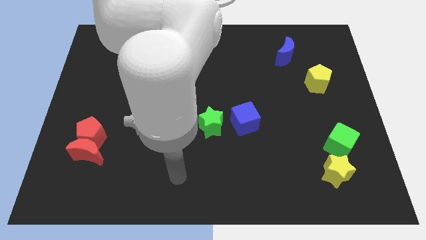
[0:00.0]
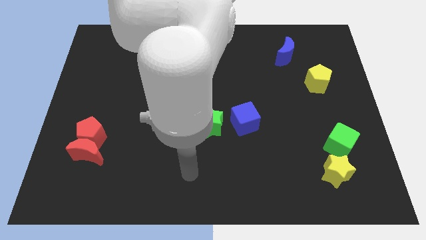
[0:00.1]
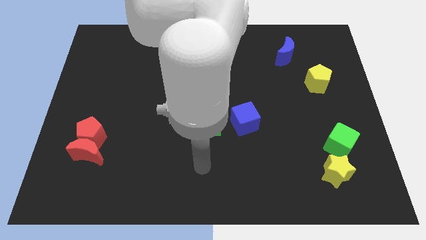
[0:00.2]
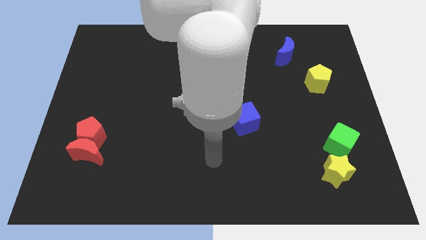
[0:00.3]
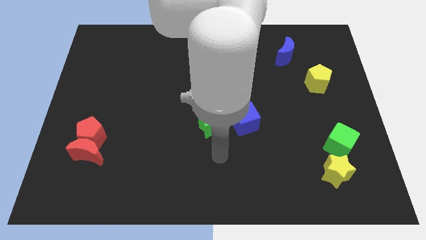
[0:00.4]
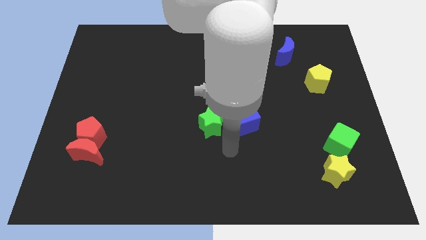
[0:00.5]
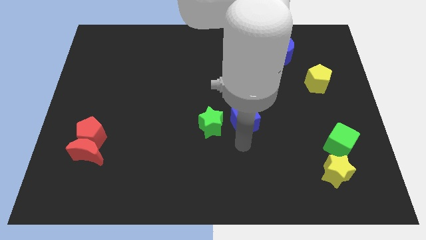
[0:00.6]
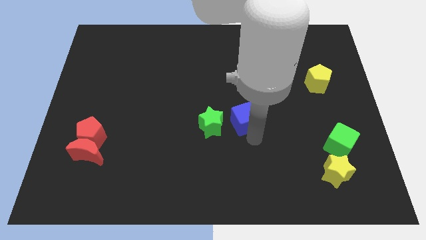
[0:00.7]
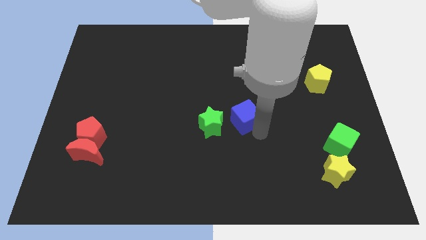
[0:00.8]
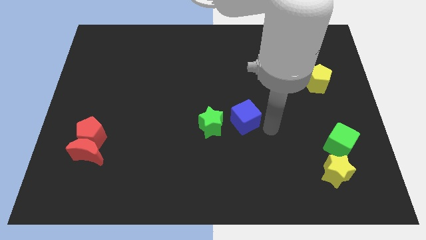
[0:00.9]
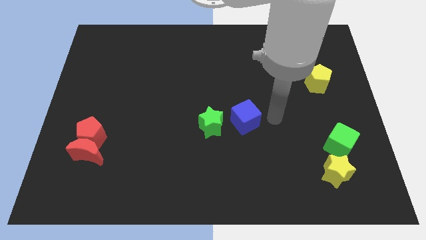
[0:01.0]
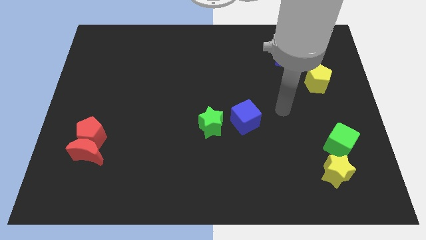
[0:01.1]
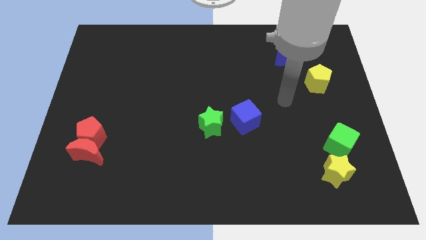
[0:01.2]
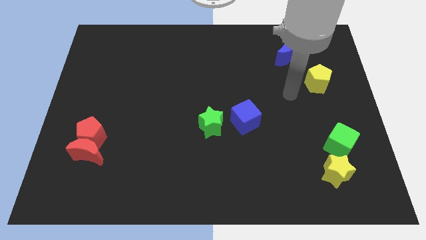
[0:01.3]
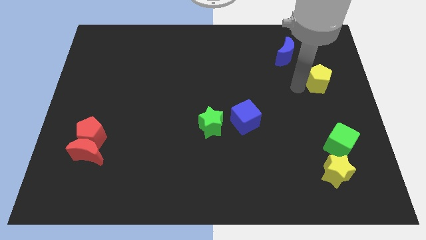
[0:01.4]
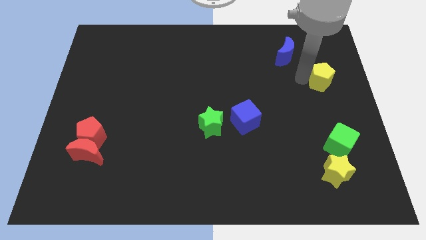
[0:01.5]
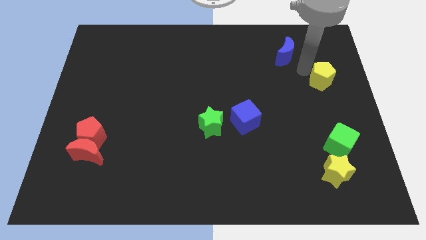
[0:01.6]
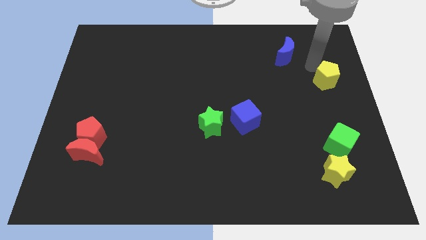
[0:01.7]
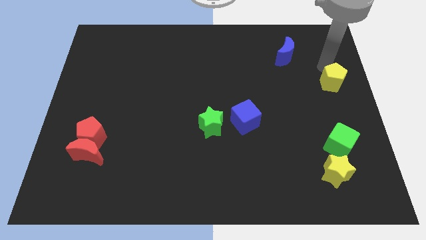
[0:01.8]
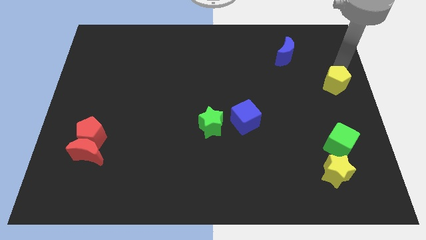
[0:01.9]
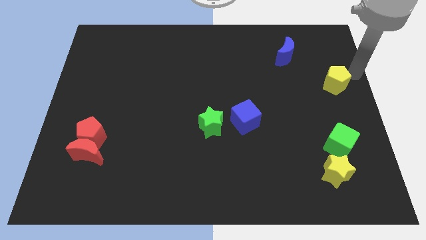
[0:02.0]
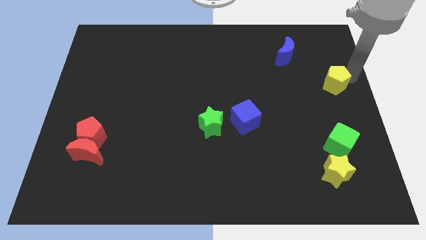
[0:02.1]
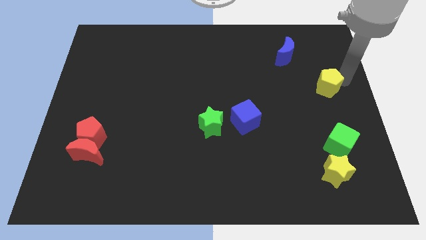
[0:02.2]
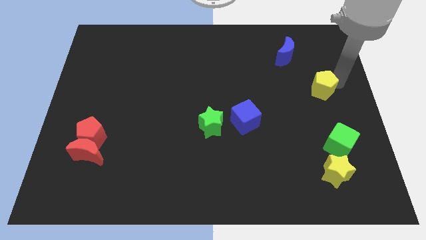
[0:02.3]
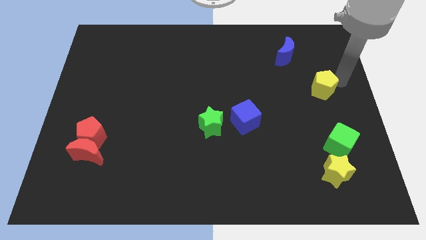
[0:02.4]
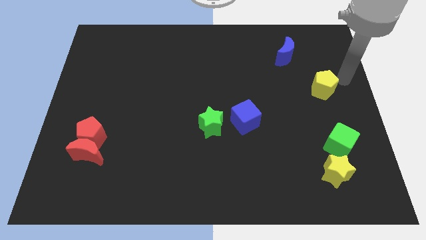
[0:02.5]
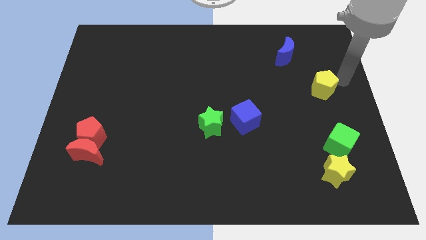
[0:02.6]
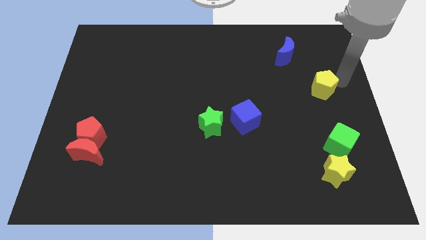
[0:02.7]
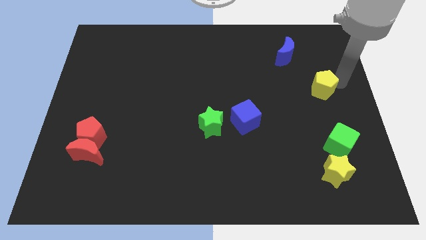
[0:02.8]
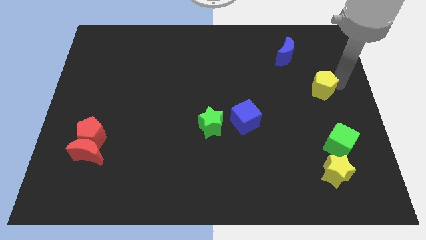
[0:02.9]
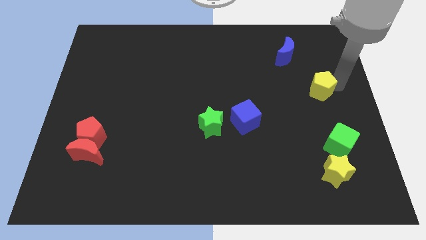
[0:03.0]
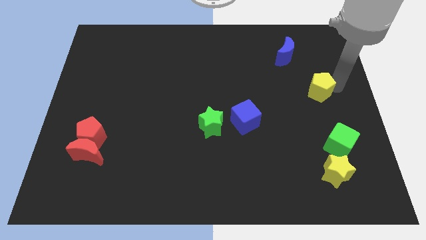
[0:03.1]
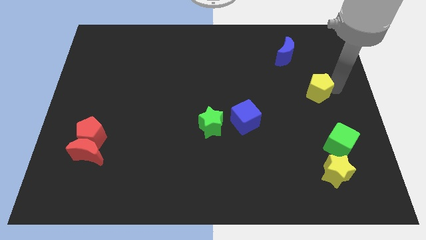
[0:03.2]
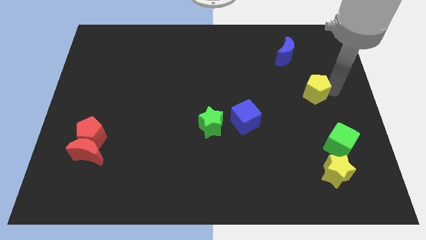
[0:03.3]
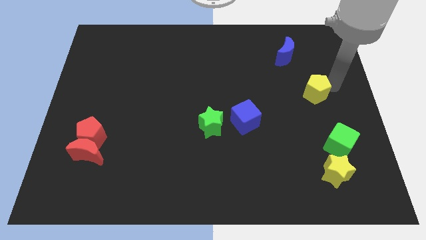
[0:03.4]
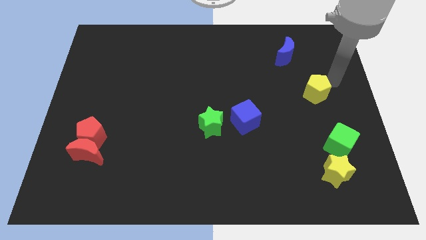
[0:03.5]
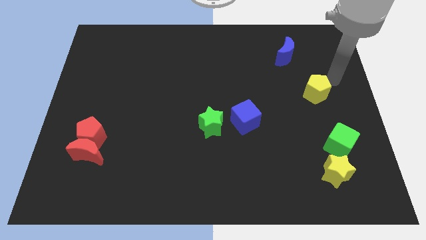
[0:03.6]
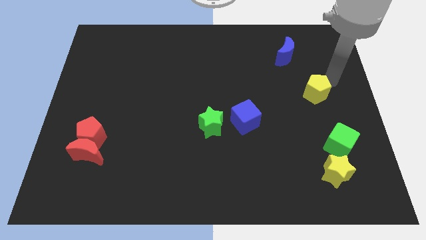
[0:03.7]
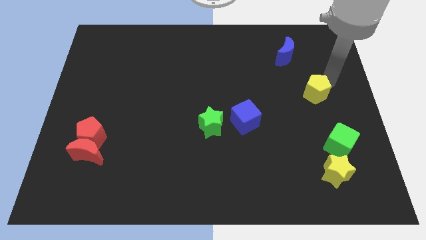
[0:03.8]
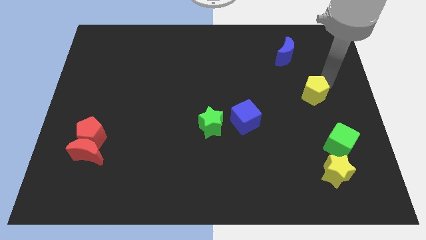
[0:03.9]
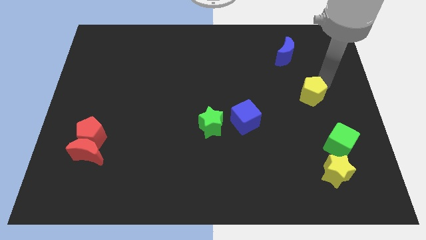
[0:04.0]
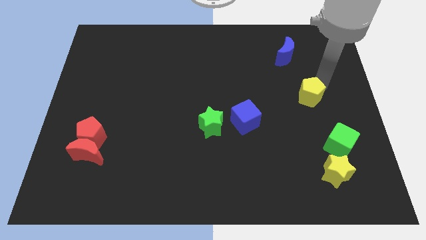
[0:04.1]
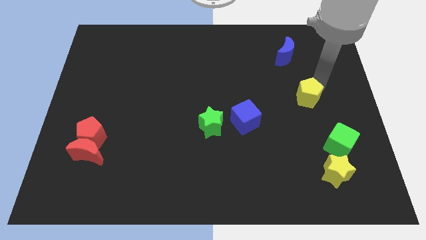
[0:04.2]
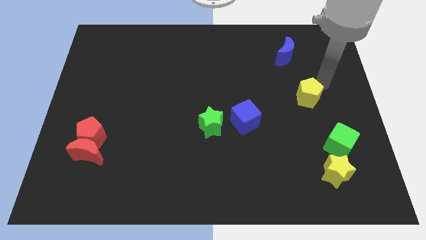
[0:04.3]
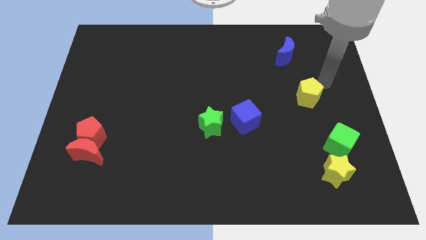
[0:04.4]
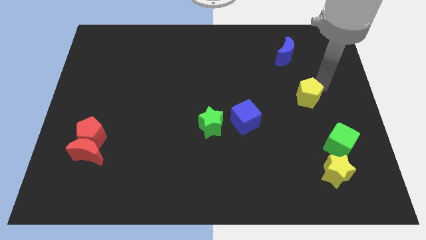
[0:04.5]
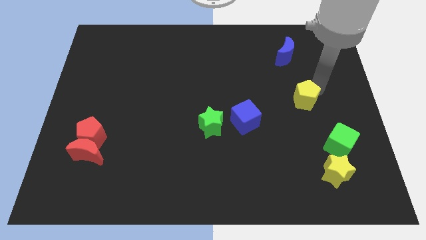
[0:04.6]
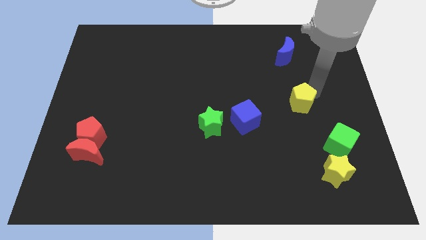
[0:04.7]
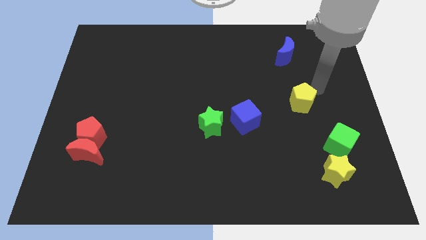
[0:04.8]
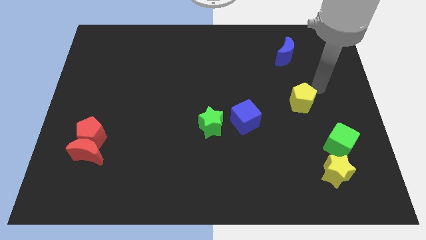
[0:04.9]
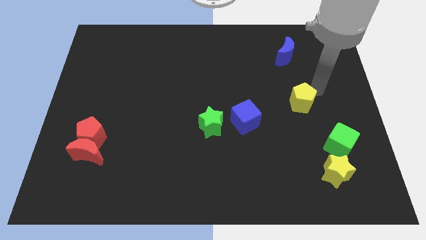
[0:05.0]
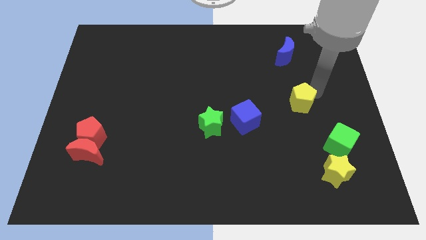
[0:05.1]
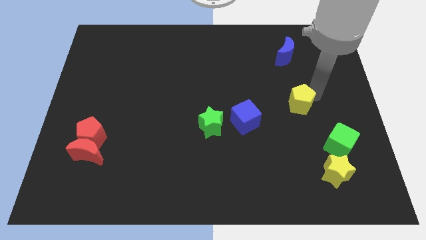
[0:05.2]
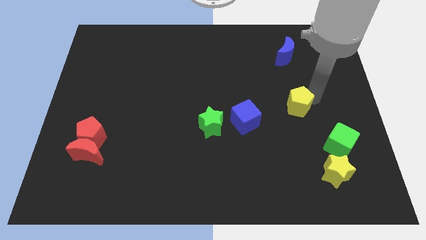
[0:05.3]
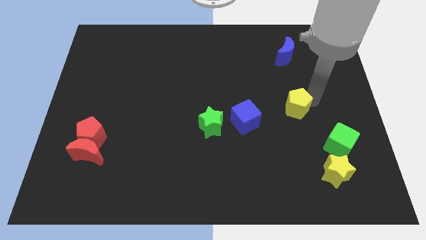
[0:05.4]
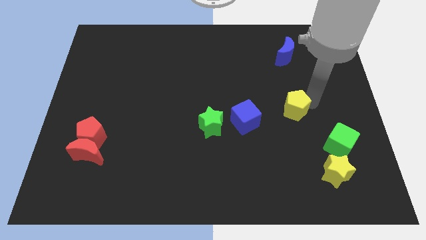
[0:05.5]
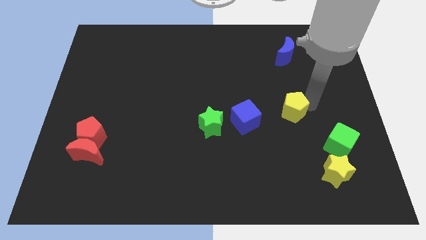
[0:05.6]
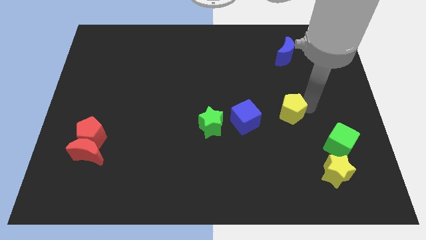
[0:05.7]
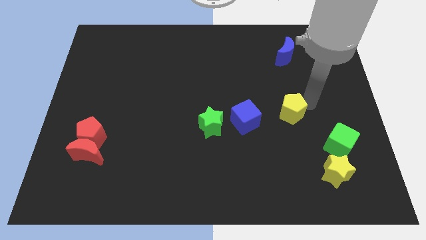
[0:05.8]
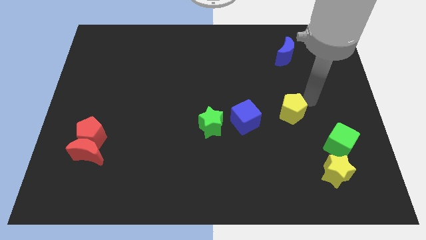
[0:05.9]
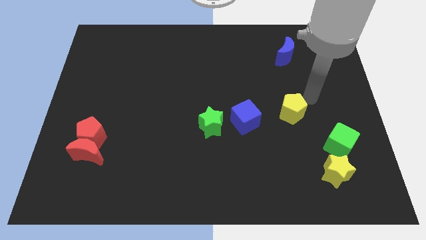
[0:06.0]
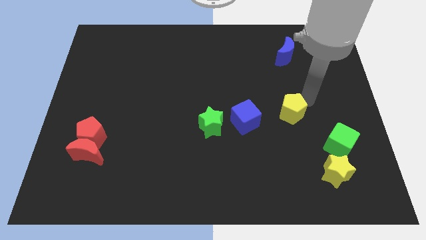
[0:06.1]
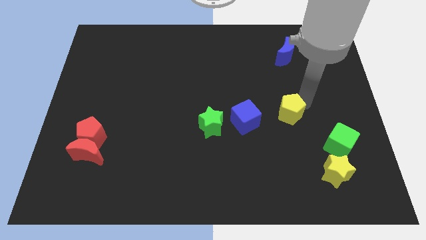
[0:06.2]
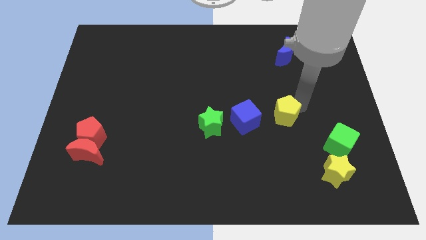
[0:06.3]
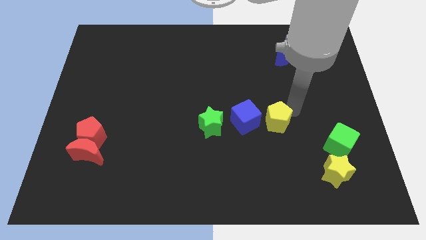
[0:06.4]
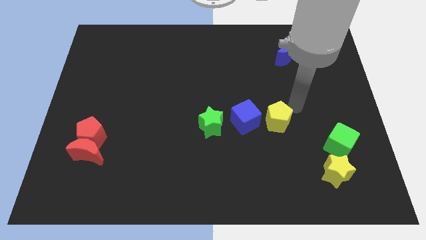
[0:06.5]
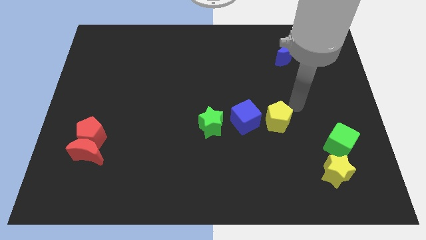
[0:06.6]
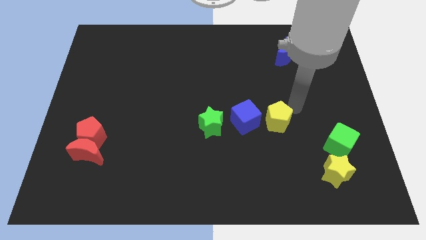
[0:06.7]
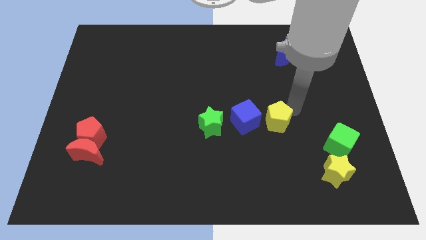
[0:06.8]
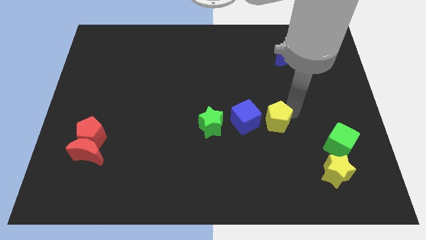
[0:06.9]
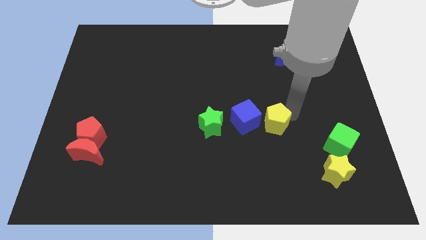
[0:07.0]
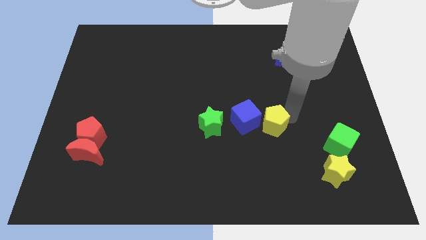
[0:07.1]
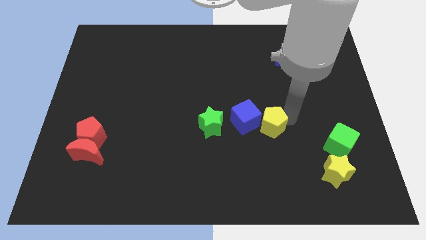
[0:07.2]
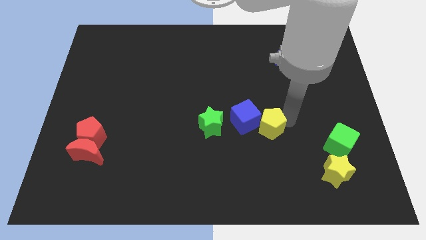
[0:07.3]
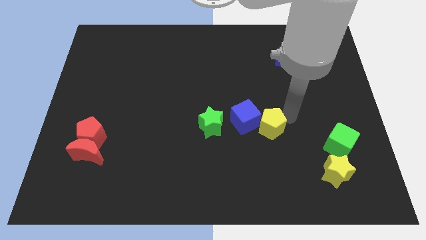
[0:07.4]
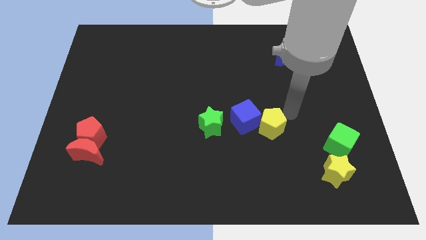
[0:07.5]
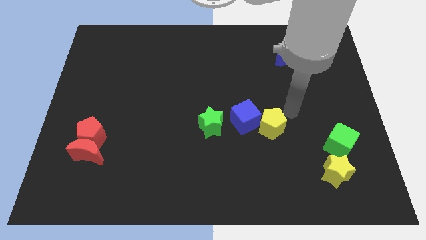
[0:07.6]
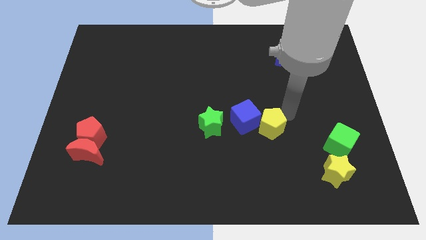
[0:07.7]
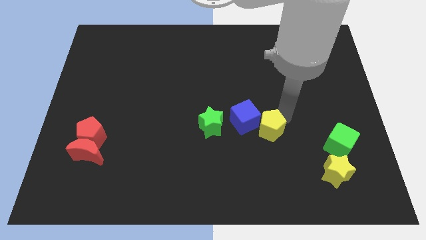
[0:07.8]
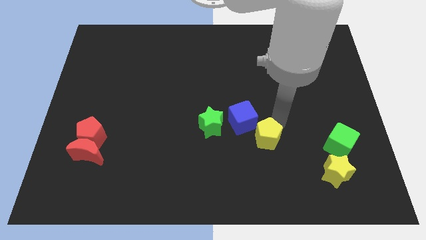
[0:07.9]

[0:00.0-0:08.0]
move the yellow pentagon downwards and then left
